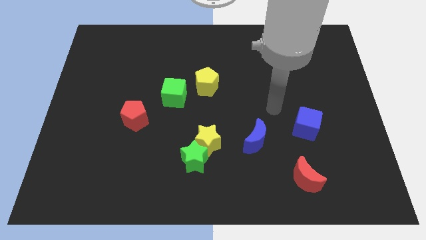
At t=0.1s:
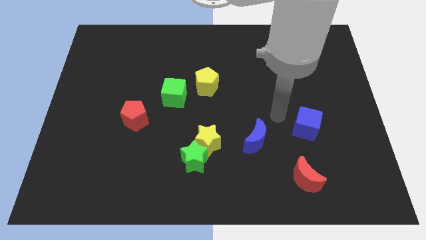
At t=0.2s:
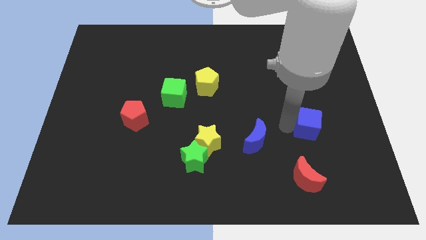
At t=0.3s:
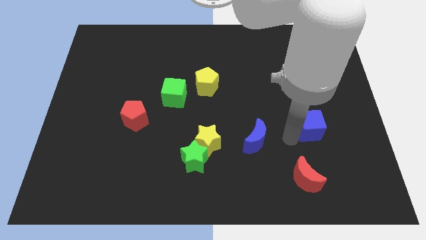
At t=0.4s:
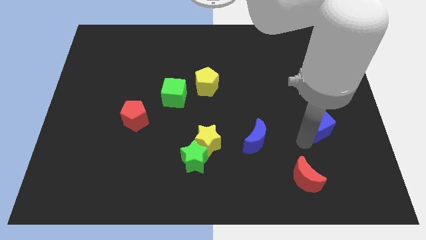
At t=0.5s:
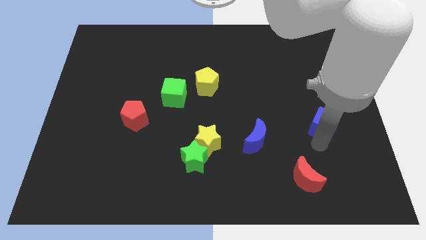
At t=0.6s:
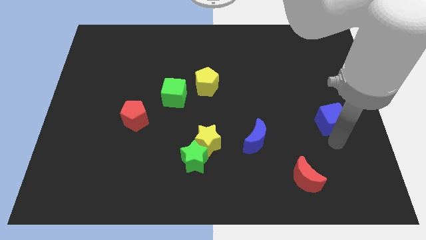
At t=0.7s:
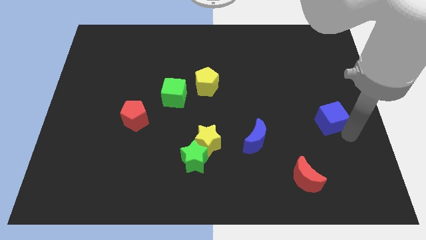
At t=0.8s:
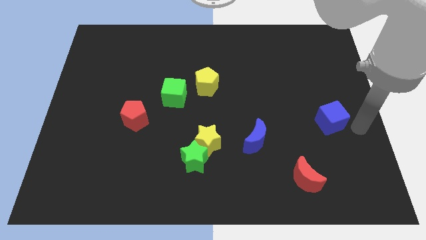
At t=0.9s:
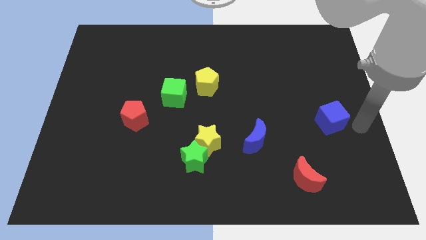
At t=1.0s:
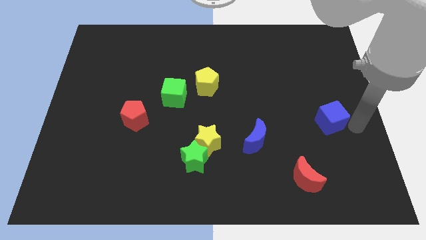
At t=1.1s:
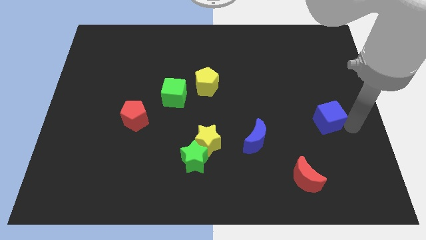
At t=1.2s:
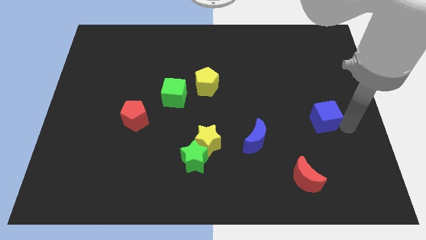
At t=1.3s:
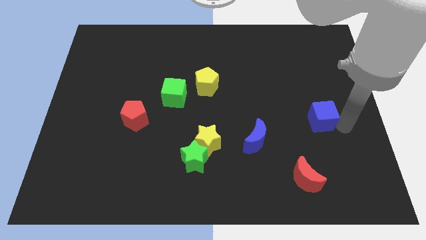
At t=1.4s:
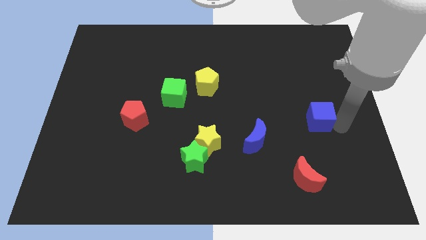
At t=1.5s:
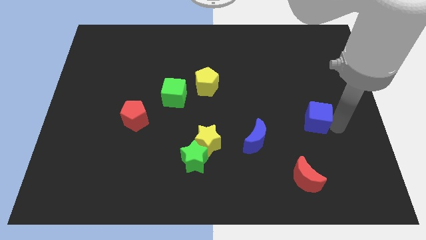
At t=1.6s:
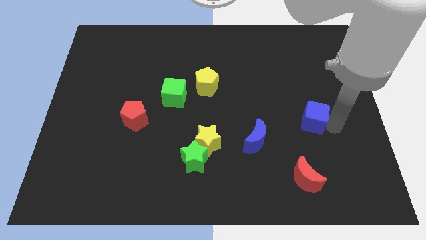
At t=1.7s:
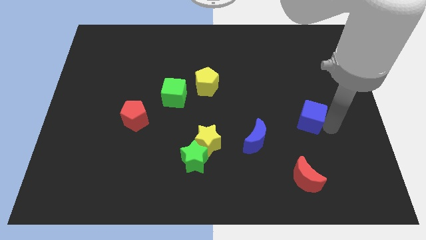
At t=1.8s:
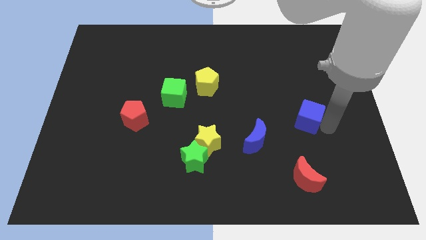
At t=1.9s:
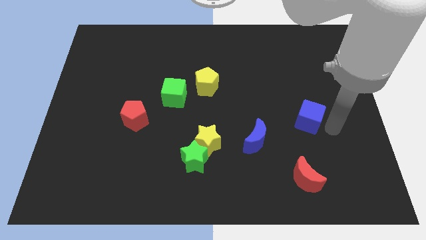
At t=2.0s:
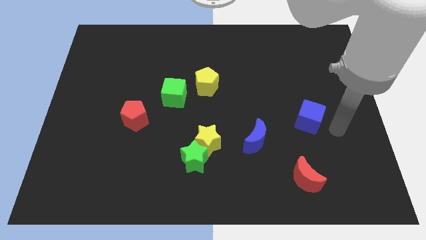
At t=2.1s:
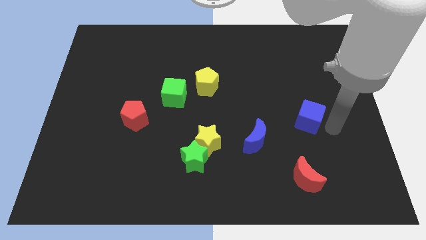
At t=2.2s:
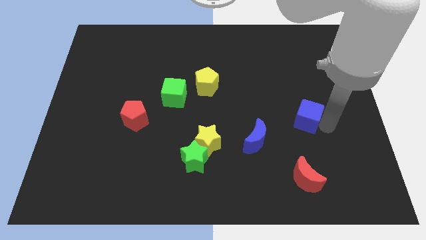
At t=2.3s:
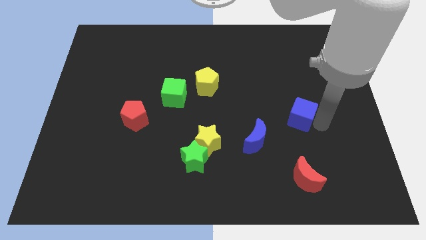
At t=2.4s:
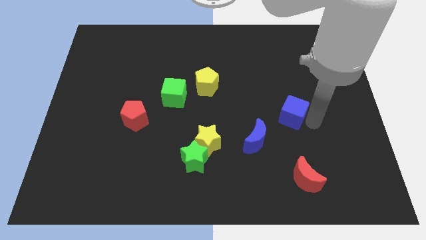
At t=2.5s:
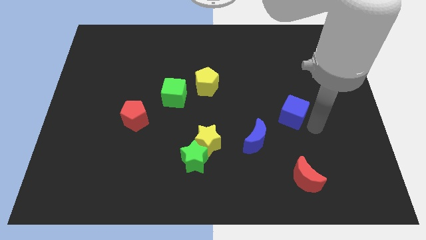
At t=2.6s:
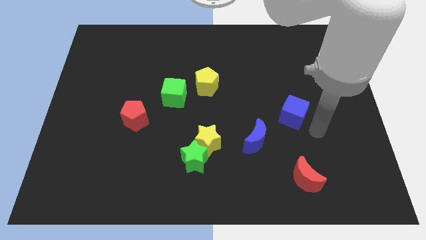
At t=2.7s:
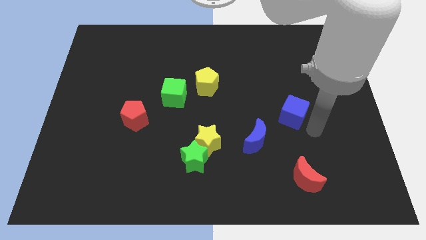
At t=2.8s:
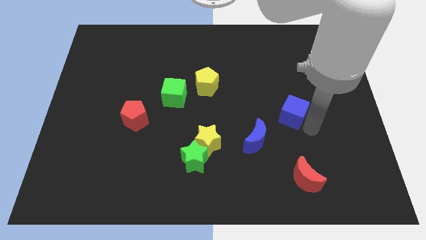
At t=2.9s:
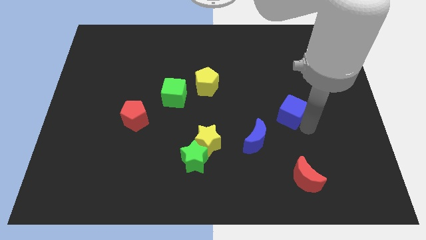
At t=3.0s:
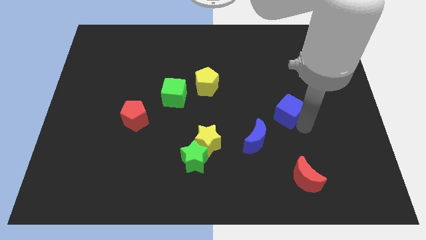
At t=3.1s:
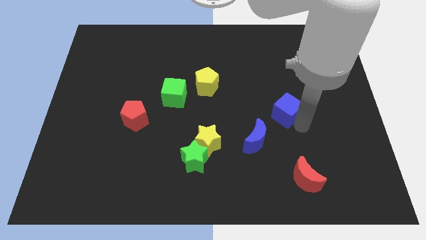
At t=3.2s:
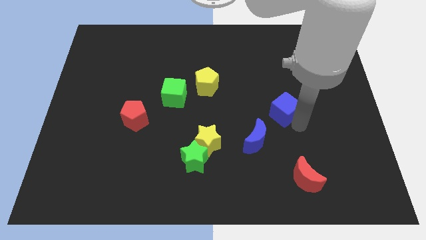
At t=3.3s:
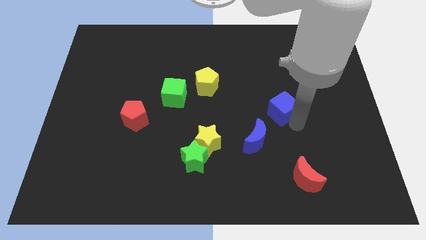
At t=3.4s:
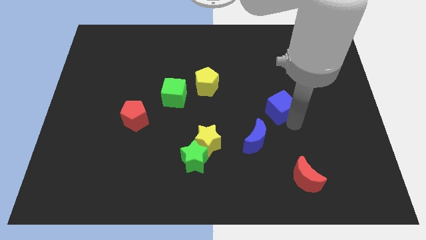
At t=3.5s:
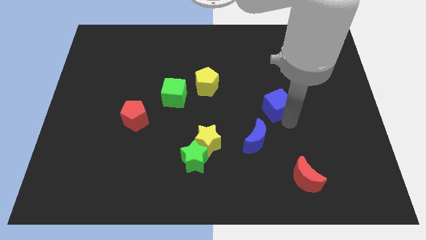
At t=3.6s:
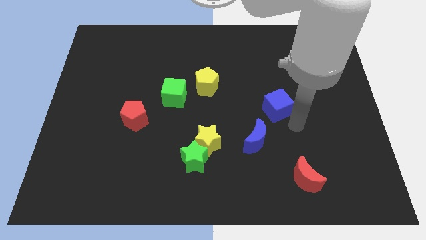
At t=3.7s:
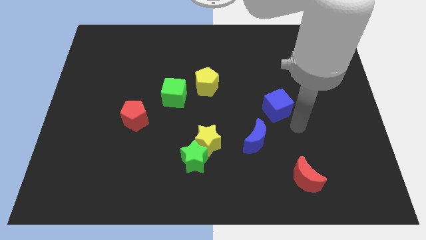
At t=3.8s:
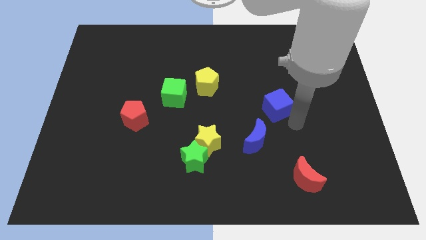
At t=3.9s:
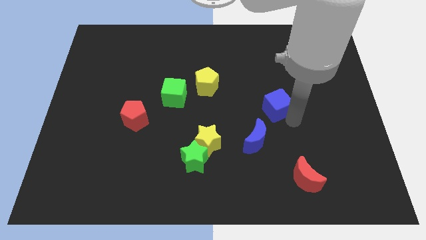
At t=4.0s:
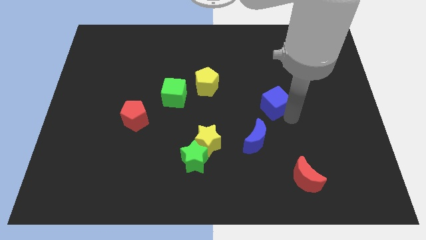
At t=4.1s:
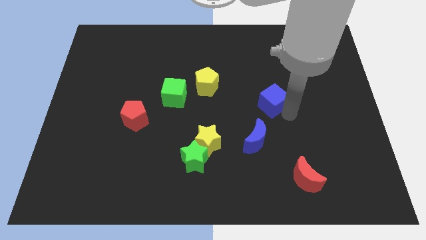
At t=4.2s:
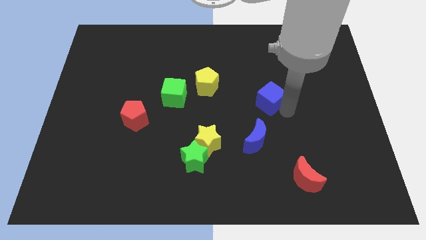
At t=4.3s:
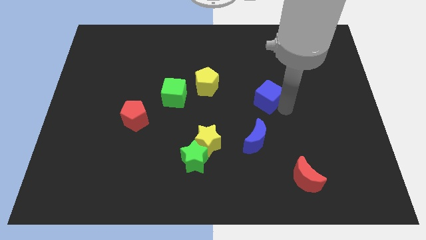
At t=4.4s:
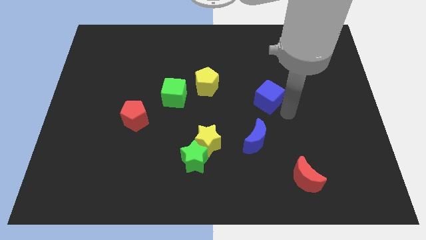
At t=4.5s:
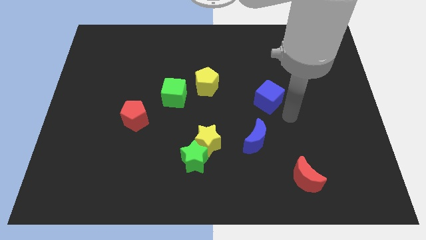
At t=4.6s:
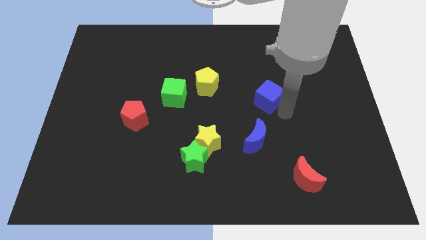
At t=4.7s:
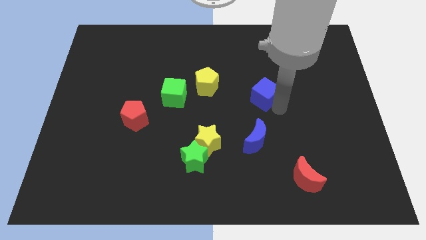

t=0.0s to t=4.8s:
put the blue cube right of the yellow pentagon

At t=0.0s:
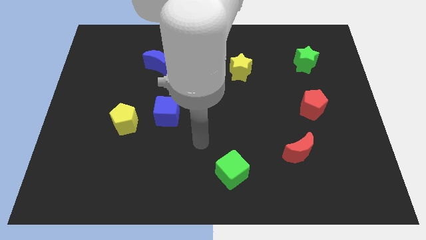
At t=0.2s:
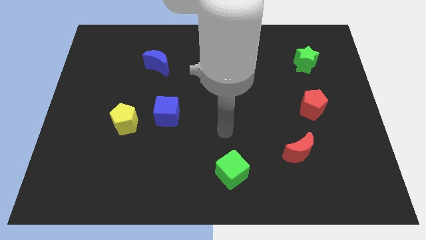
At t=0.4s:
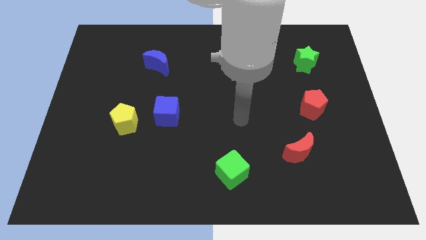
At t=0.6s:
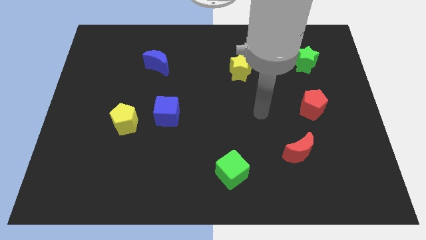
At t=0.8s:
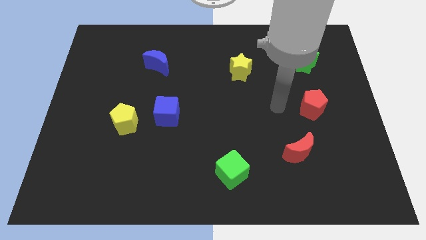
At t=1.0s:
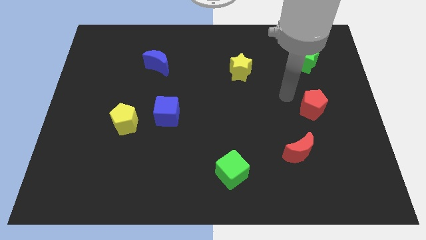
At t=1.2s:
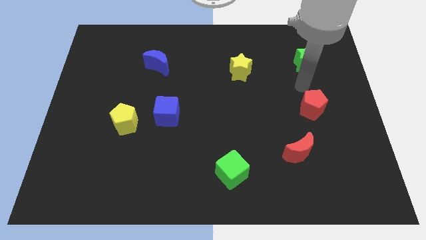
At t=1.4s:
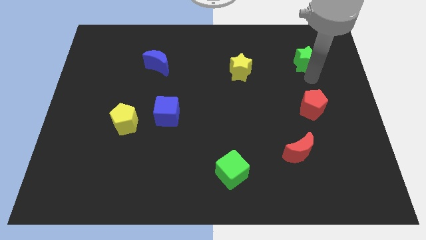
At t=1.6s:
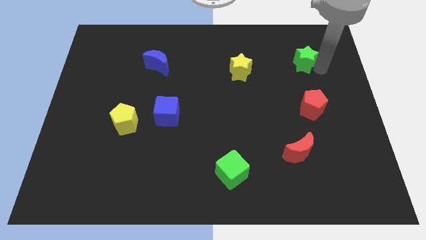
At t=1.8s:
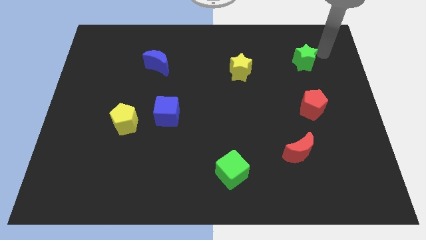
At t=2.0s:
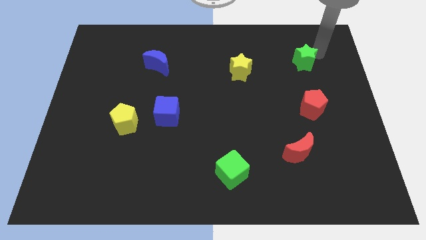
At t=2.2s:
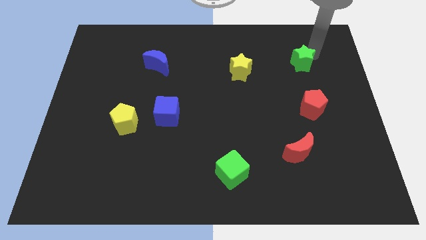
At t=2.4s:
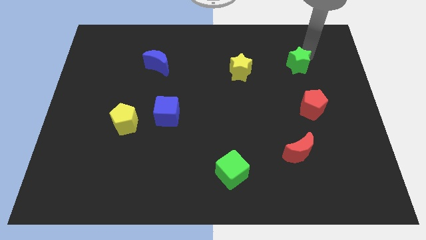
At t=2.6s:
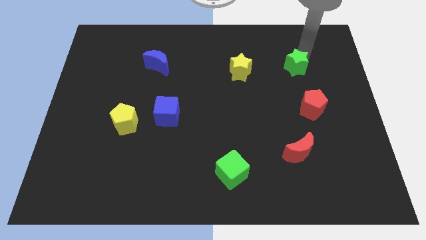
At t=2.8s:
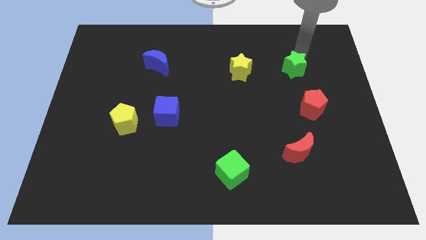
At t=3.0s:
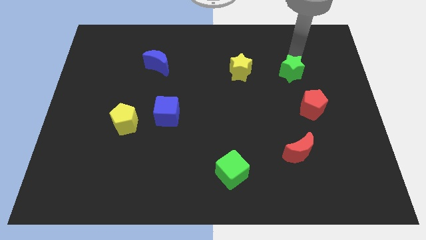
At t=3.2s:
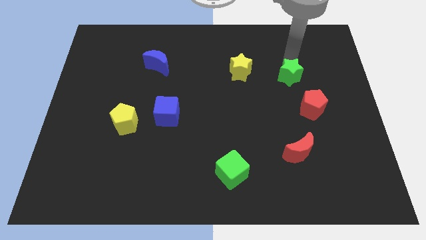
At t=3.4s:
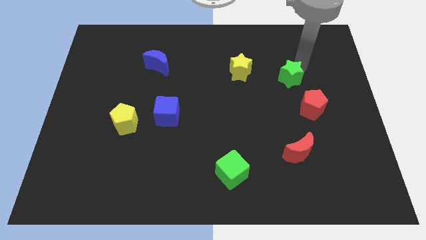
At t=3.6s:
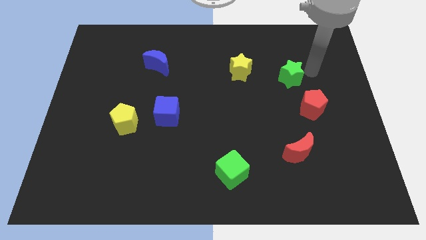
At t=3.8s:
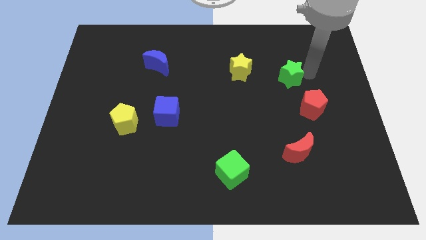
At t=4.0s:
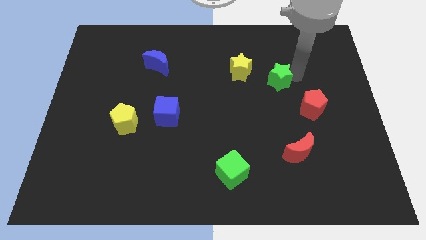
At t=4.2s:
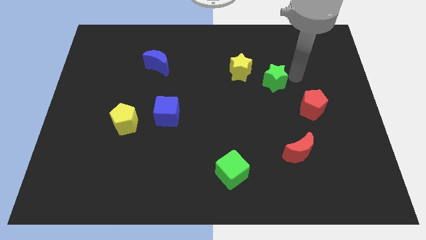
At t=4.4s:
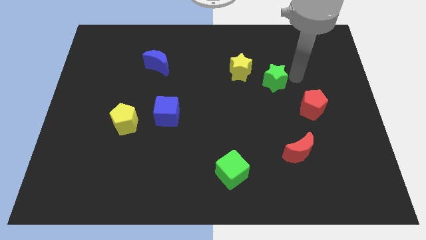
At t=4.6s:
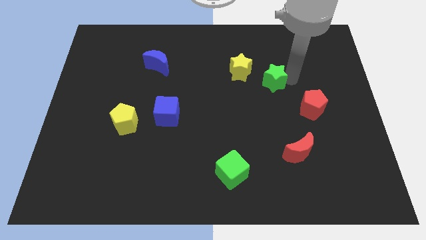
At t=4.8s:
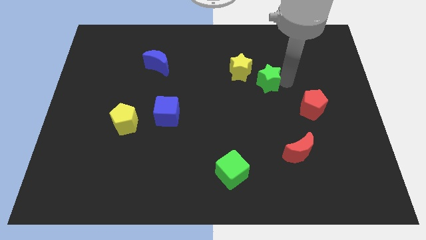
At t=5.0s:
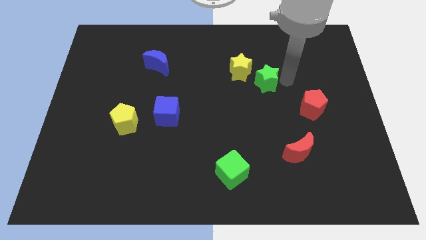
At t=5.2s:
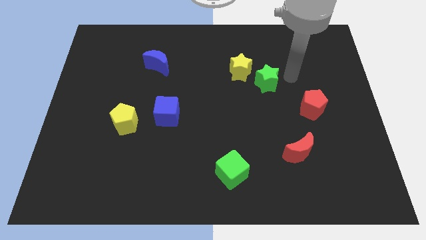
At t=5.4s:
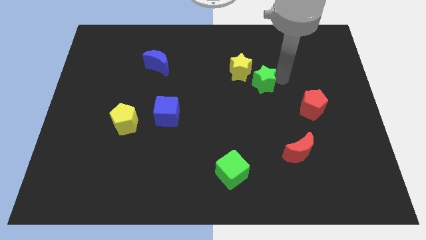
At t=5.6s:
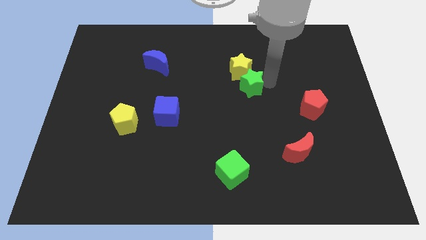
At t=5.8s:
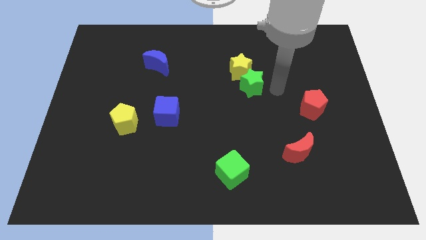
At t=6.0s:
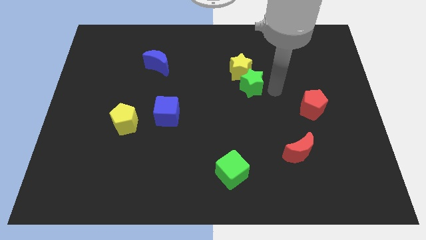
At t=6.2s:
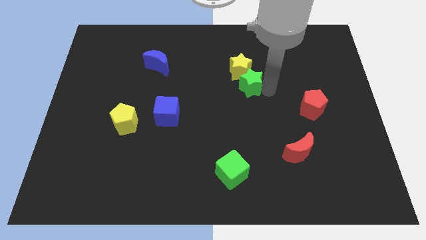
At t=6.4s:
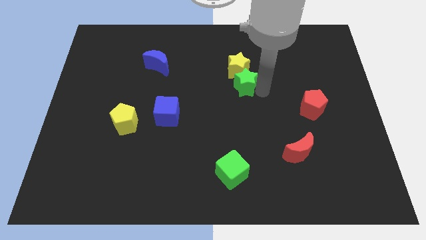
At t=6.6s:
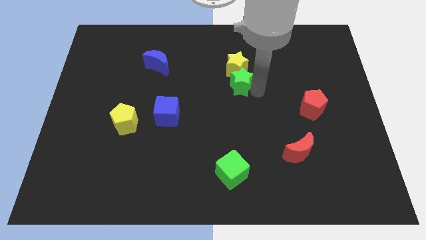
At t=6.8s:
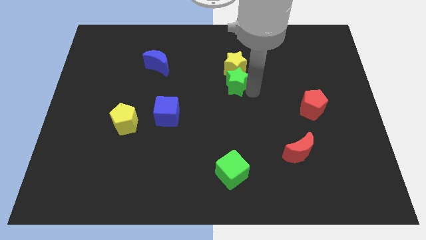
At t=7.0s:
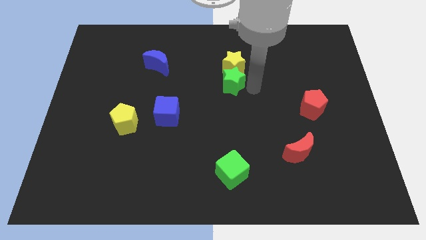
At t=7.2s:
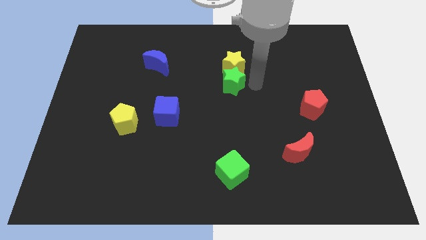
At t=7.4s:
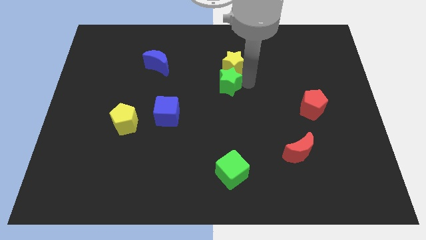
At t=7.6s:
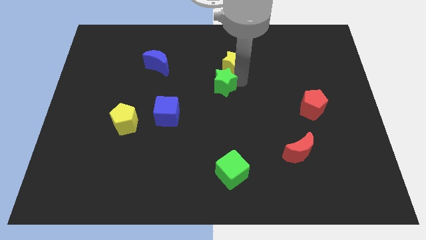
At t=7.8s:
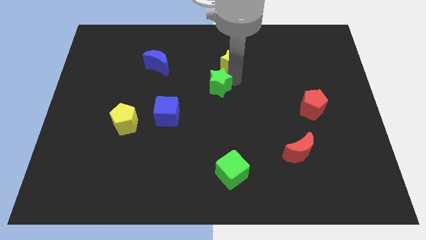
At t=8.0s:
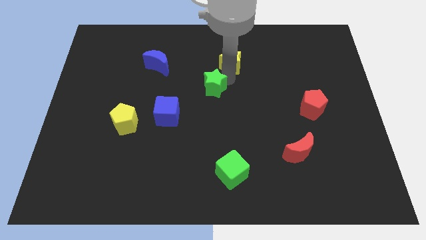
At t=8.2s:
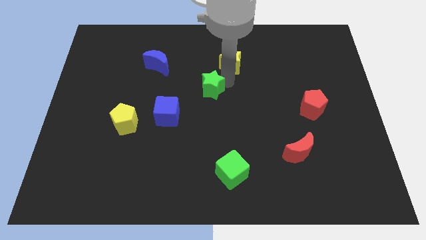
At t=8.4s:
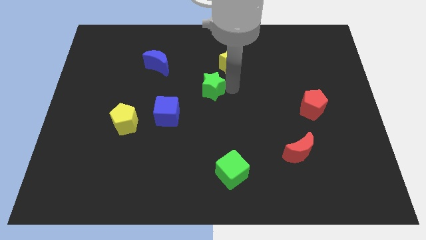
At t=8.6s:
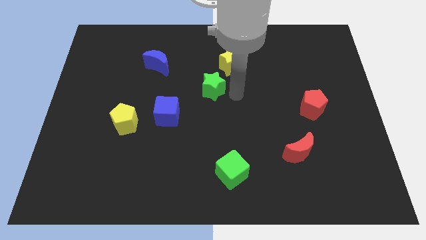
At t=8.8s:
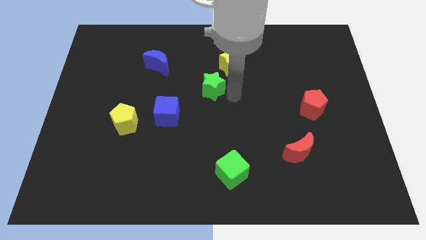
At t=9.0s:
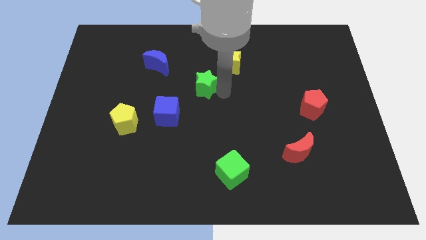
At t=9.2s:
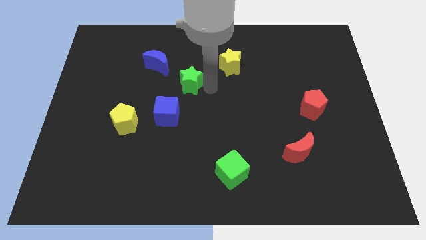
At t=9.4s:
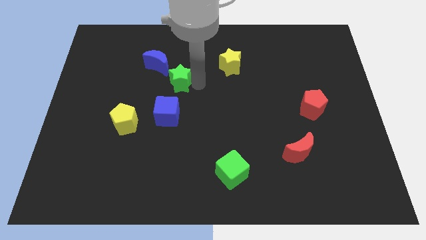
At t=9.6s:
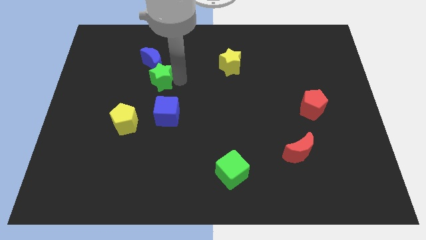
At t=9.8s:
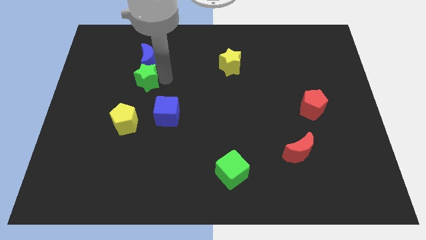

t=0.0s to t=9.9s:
push the green star above the yellow pentagon
